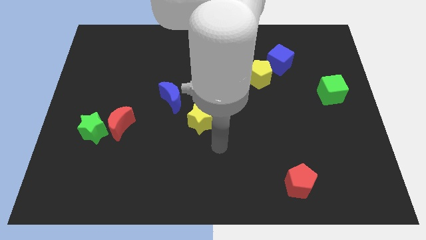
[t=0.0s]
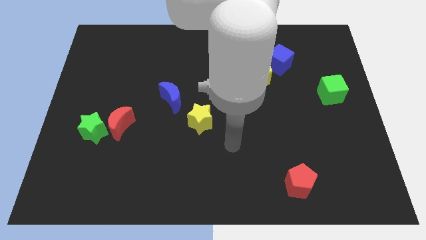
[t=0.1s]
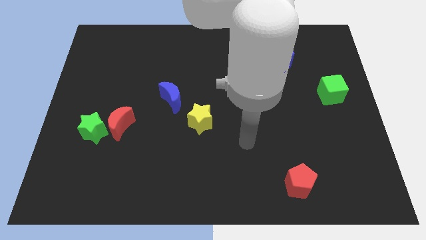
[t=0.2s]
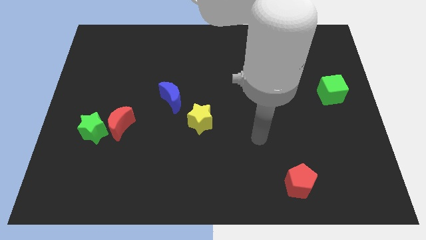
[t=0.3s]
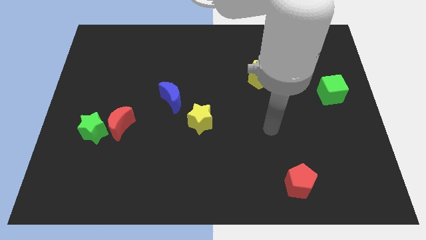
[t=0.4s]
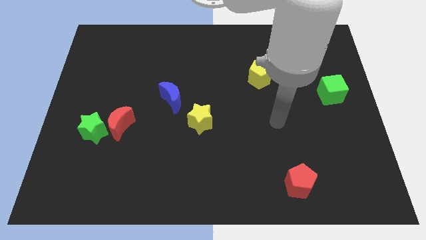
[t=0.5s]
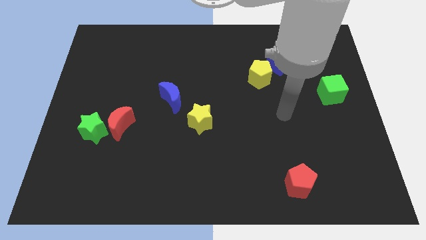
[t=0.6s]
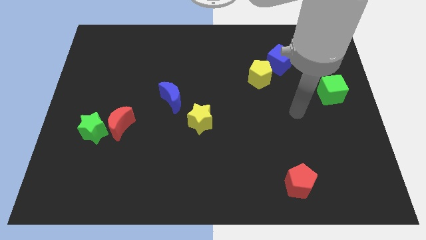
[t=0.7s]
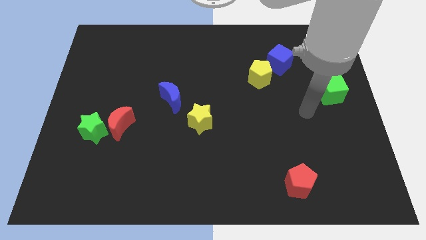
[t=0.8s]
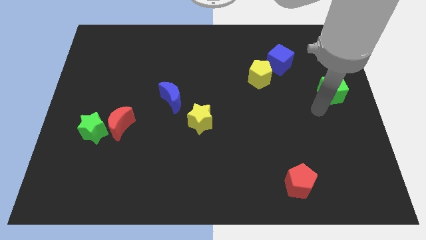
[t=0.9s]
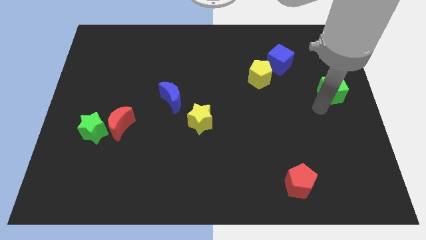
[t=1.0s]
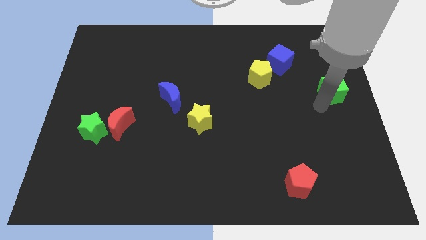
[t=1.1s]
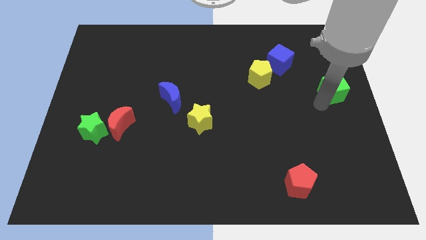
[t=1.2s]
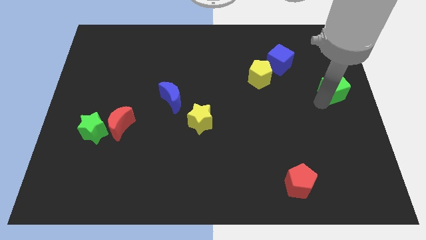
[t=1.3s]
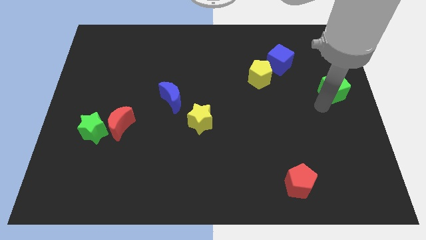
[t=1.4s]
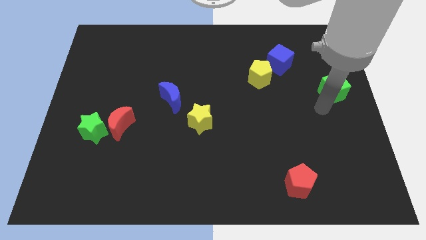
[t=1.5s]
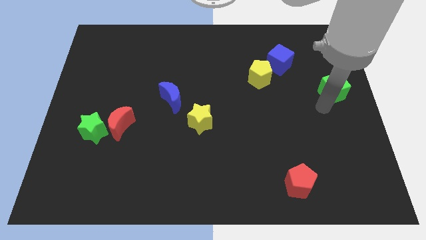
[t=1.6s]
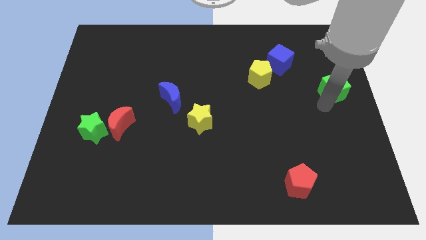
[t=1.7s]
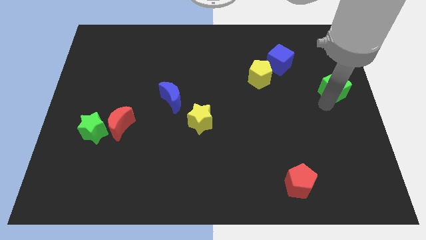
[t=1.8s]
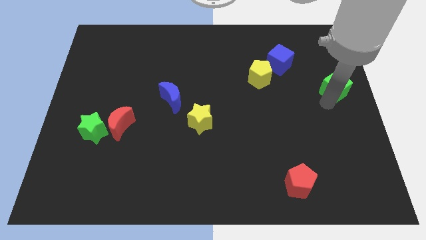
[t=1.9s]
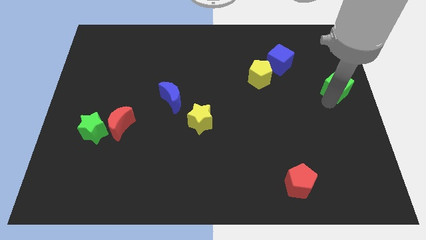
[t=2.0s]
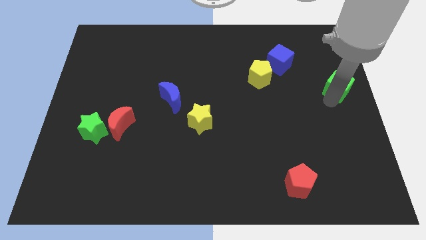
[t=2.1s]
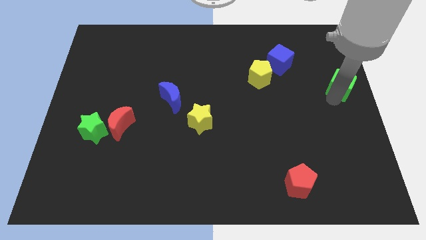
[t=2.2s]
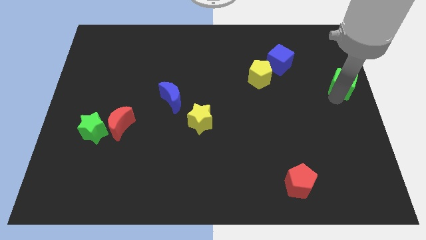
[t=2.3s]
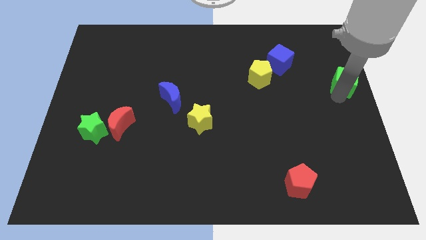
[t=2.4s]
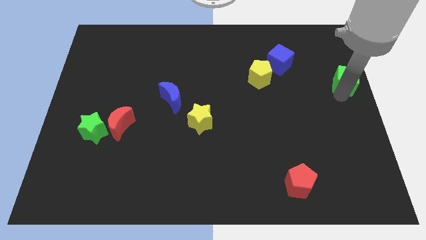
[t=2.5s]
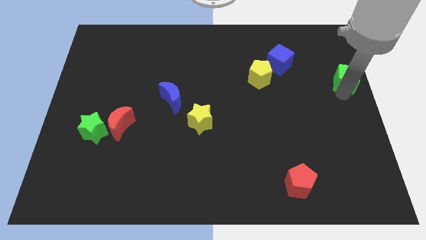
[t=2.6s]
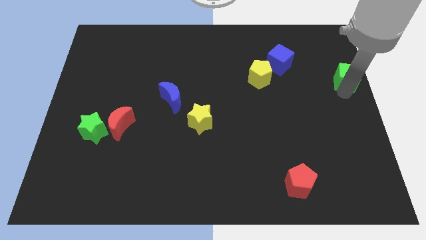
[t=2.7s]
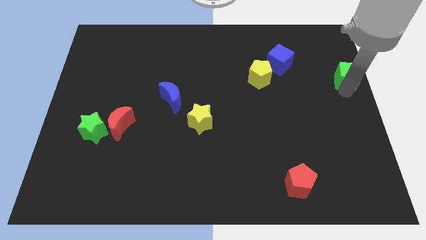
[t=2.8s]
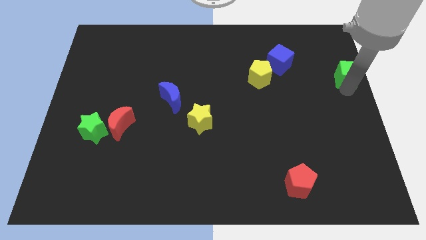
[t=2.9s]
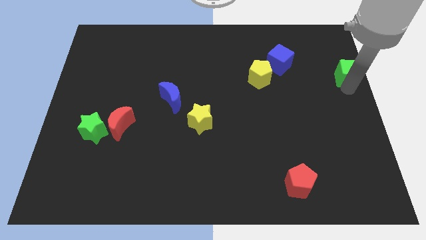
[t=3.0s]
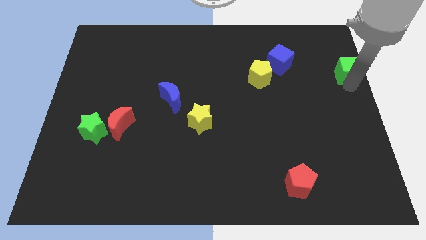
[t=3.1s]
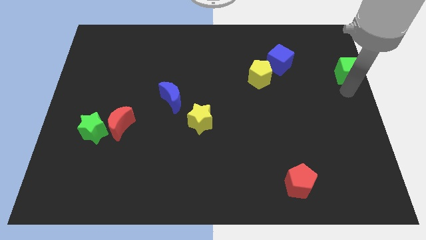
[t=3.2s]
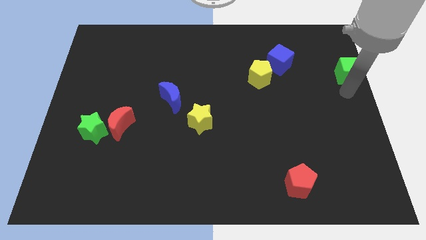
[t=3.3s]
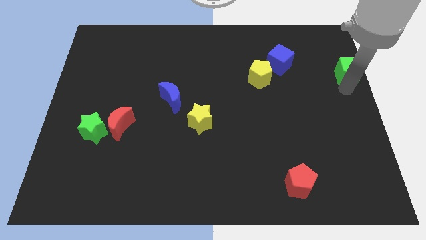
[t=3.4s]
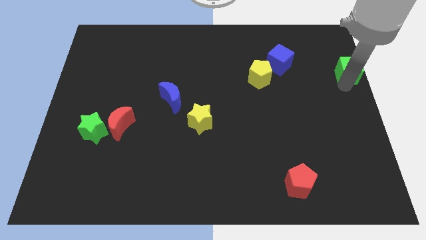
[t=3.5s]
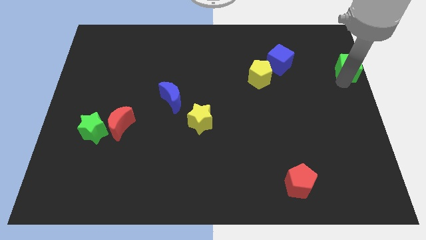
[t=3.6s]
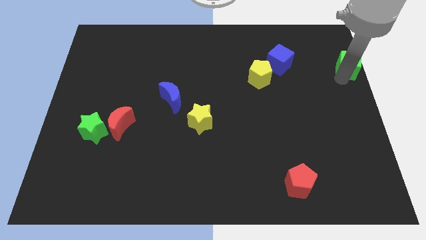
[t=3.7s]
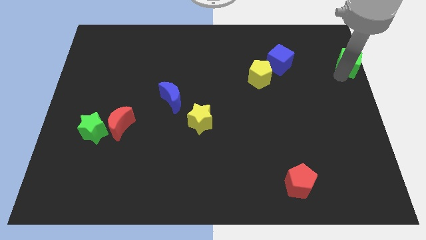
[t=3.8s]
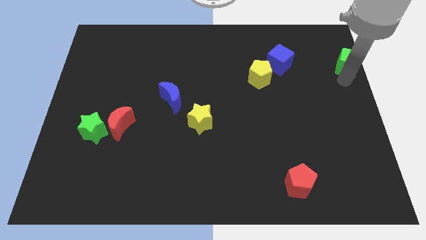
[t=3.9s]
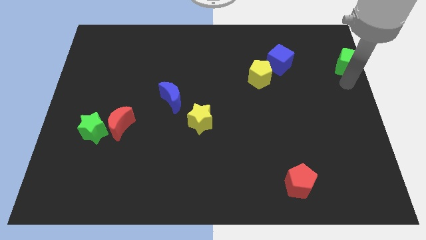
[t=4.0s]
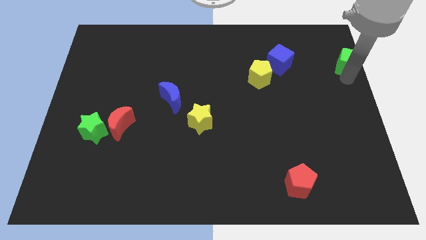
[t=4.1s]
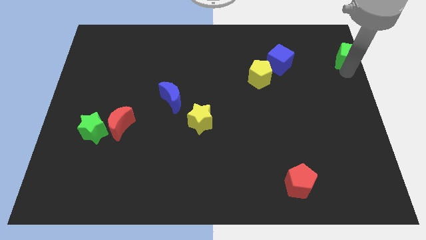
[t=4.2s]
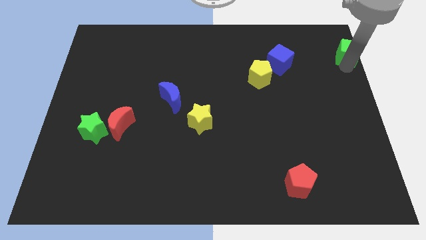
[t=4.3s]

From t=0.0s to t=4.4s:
move the green cube to the upper right corner

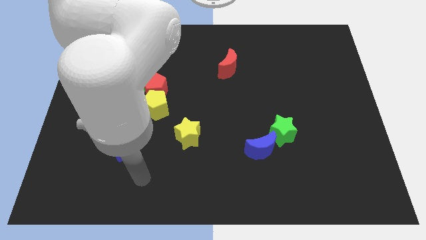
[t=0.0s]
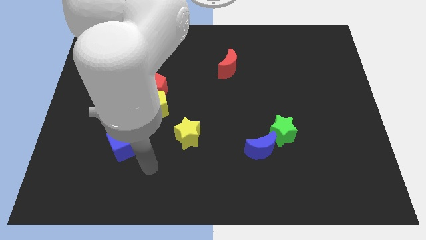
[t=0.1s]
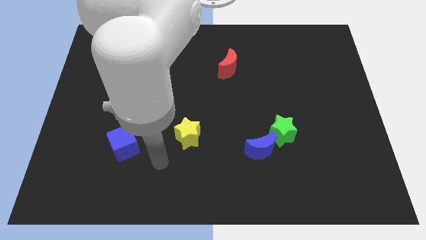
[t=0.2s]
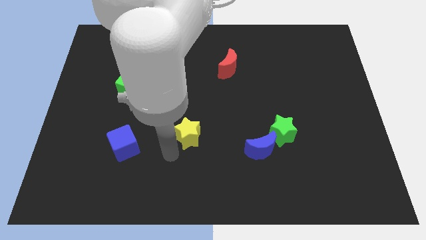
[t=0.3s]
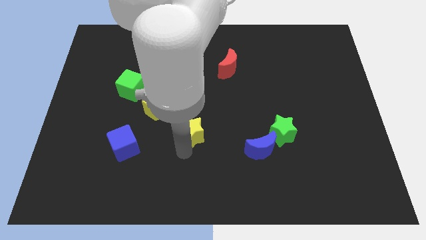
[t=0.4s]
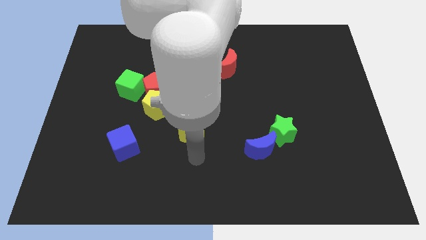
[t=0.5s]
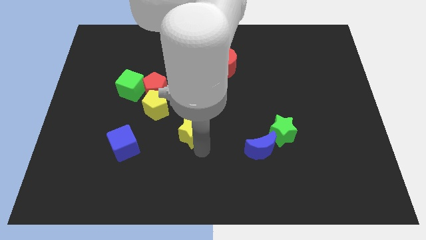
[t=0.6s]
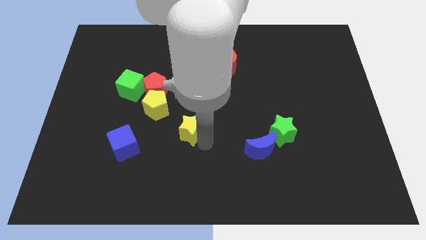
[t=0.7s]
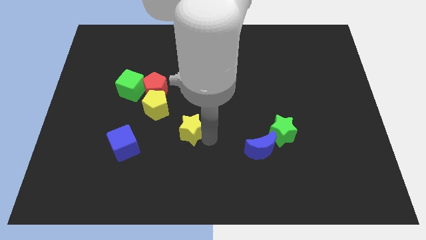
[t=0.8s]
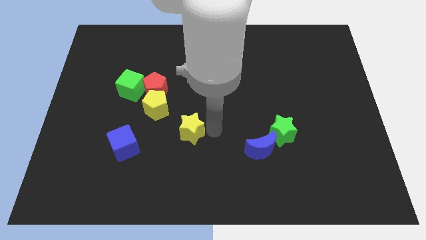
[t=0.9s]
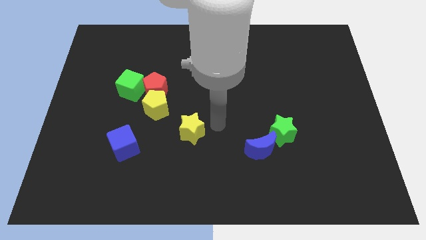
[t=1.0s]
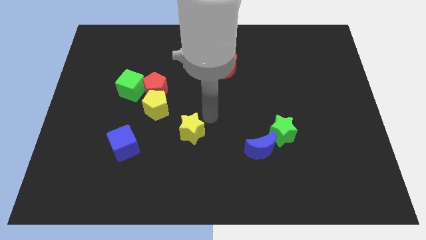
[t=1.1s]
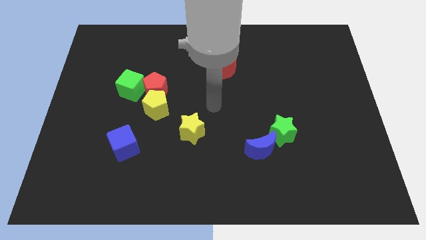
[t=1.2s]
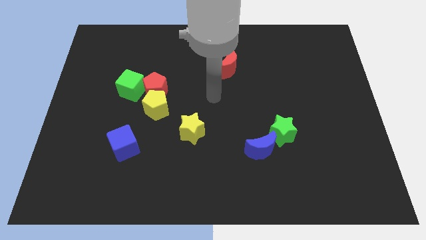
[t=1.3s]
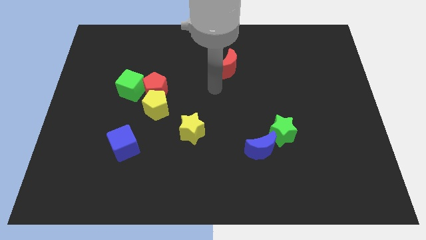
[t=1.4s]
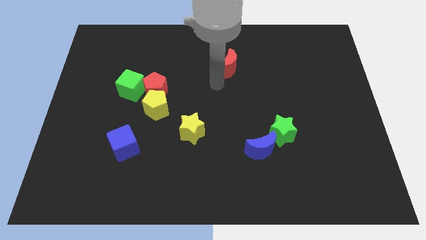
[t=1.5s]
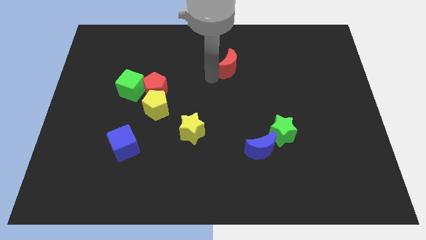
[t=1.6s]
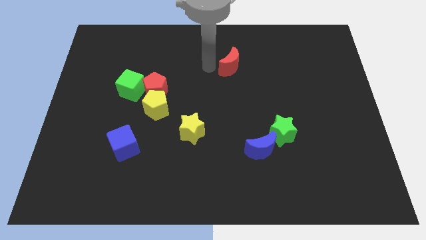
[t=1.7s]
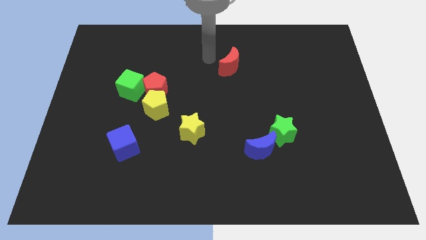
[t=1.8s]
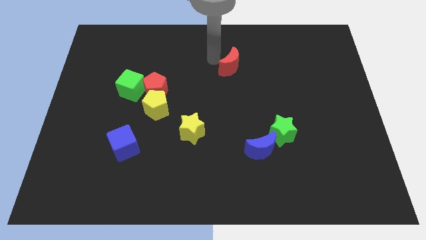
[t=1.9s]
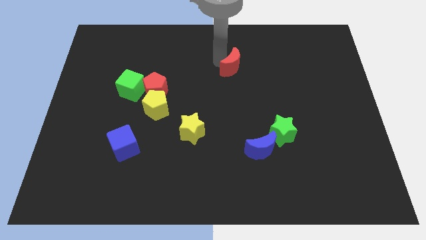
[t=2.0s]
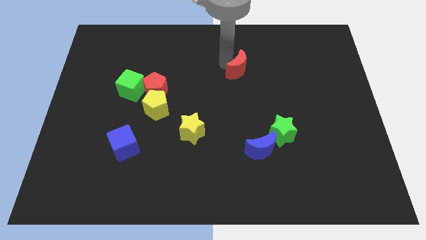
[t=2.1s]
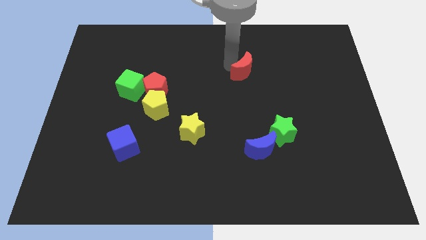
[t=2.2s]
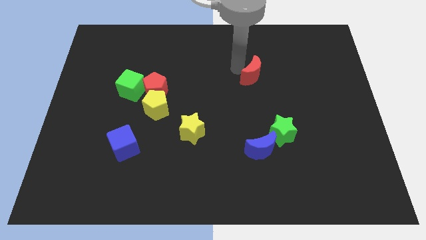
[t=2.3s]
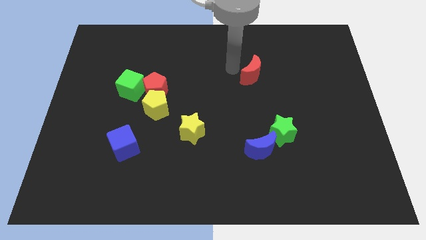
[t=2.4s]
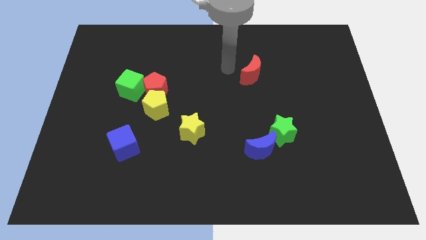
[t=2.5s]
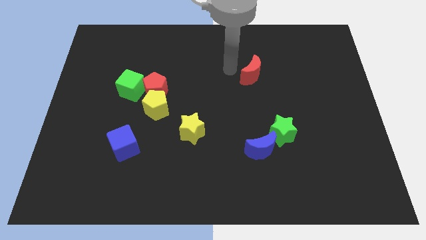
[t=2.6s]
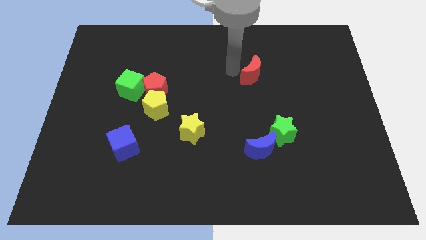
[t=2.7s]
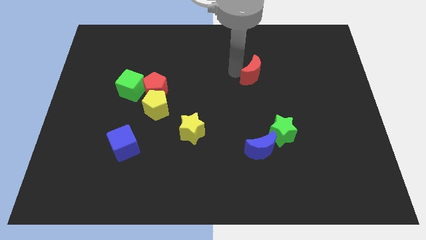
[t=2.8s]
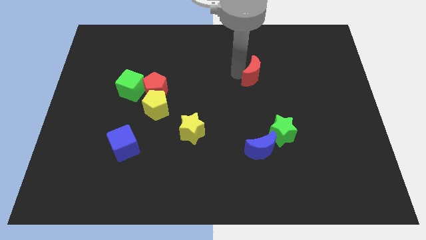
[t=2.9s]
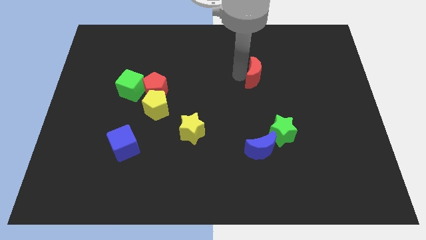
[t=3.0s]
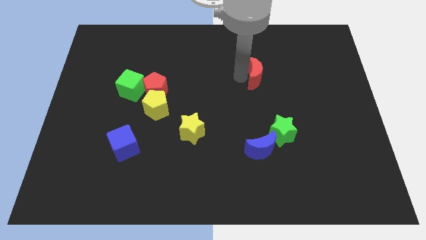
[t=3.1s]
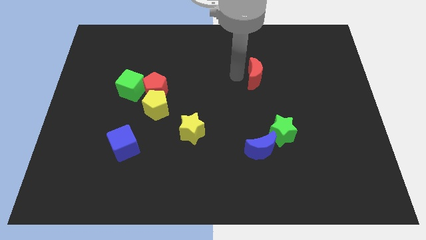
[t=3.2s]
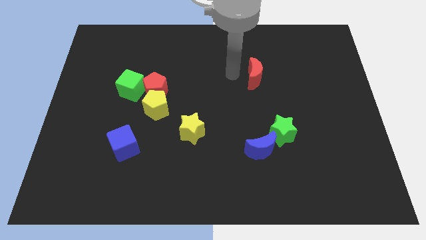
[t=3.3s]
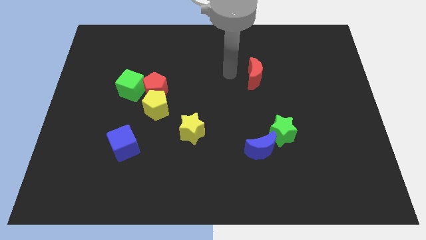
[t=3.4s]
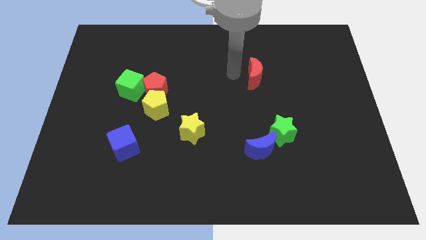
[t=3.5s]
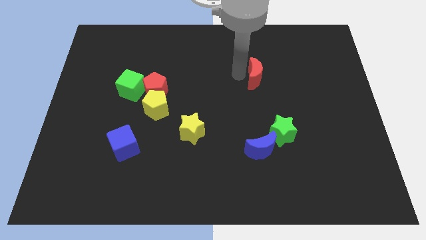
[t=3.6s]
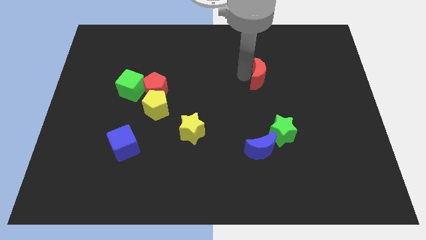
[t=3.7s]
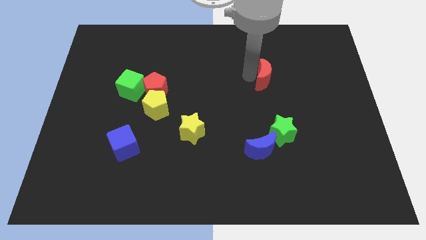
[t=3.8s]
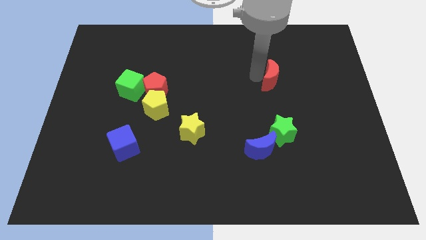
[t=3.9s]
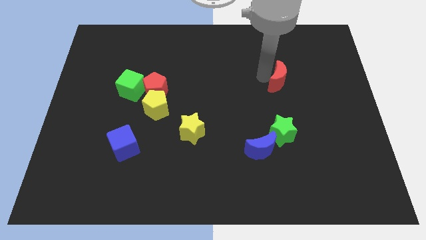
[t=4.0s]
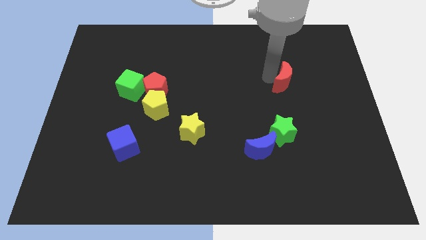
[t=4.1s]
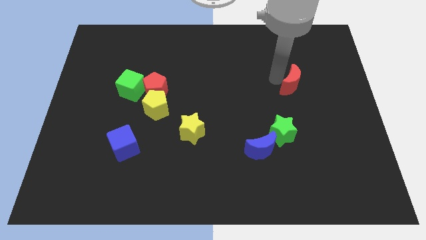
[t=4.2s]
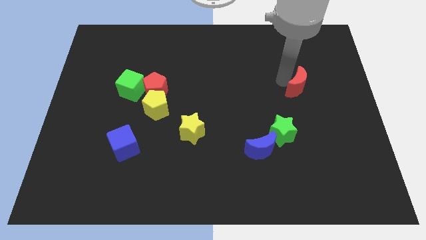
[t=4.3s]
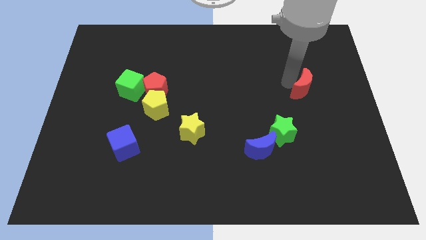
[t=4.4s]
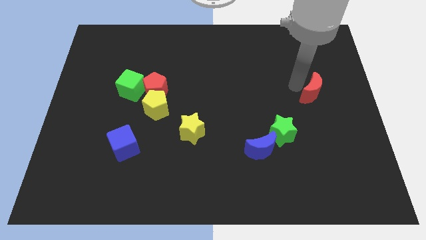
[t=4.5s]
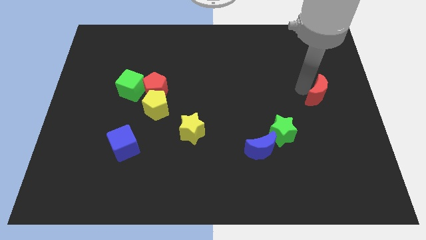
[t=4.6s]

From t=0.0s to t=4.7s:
push the red moon to the center right
